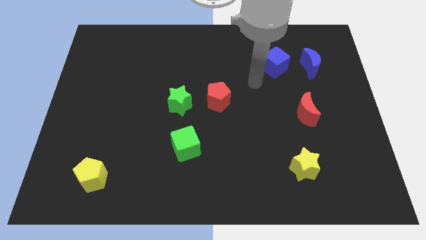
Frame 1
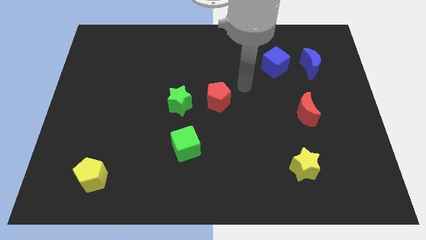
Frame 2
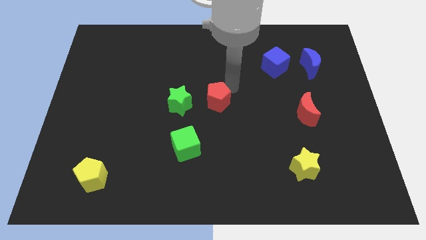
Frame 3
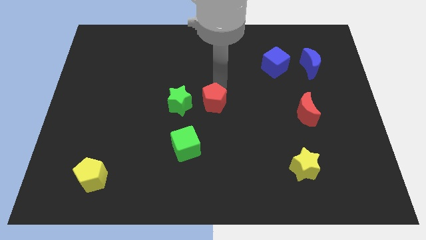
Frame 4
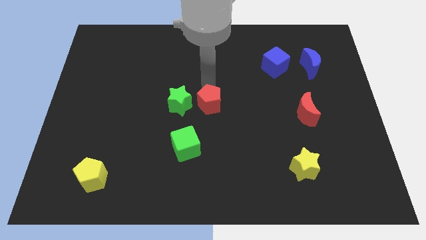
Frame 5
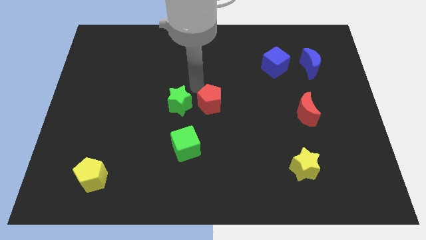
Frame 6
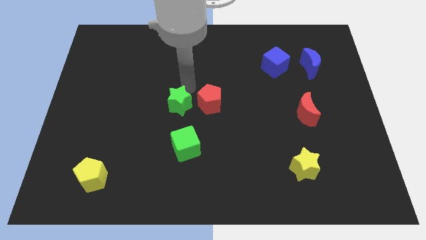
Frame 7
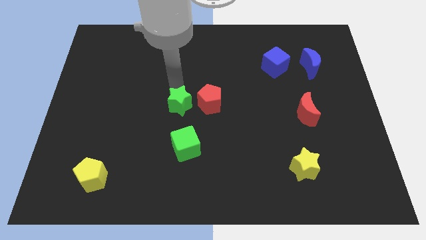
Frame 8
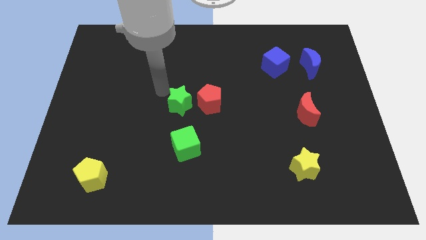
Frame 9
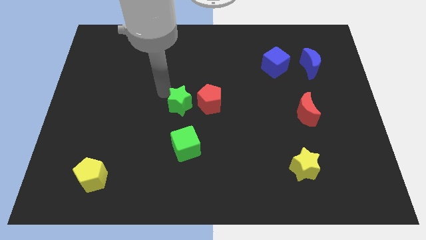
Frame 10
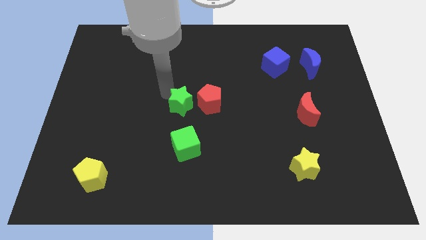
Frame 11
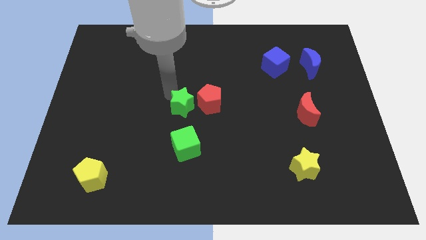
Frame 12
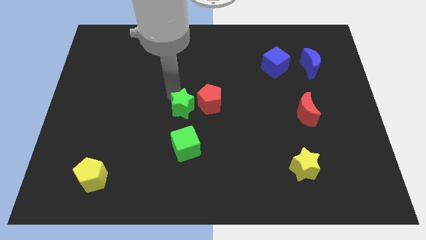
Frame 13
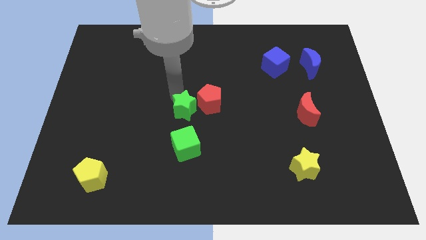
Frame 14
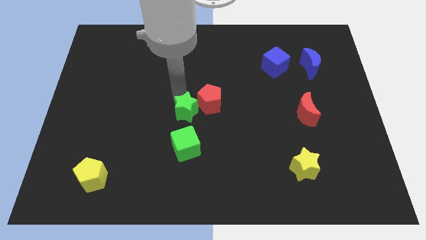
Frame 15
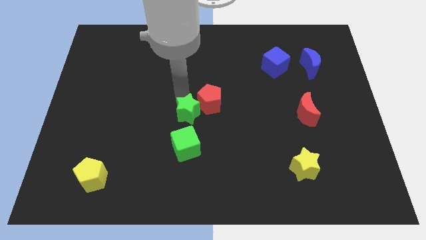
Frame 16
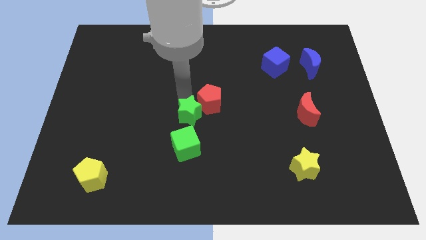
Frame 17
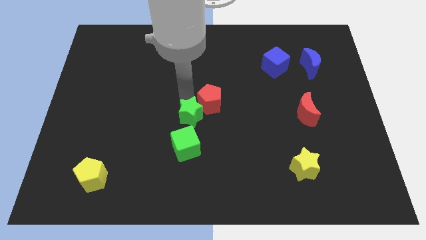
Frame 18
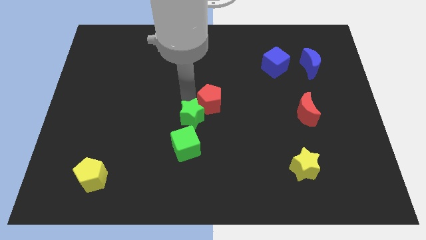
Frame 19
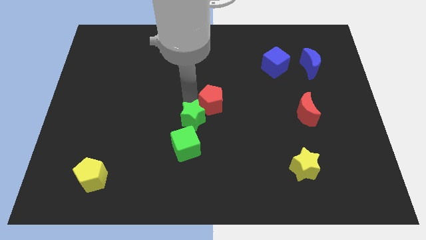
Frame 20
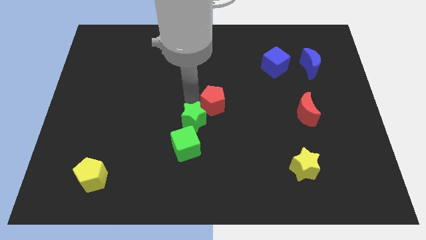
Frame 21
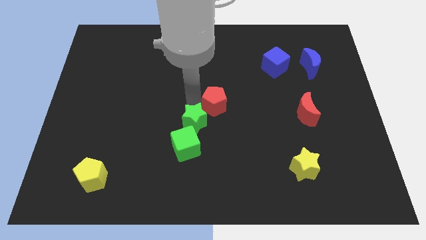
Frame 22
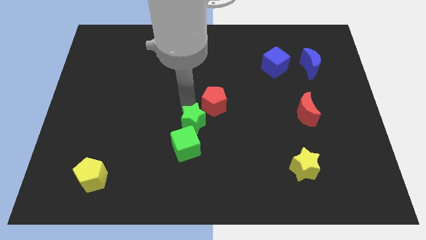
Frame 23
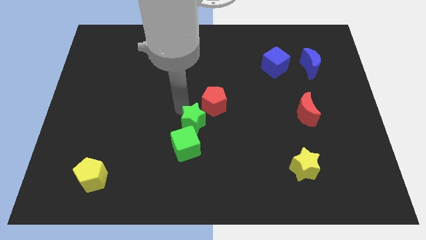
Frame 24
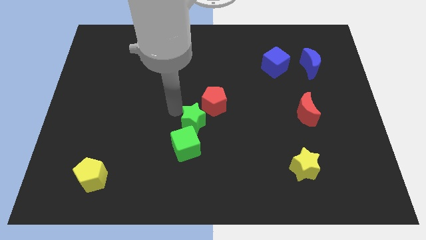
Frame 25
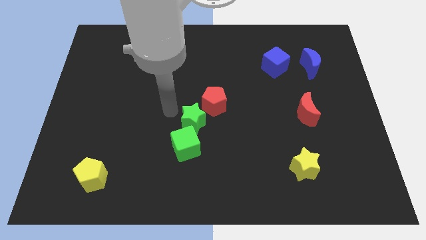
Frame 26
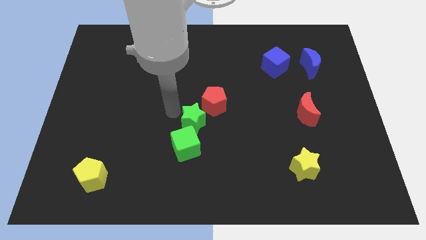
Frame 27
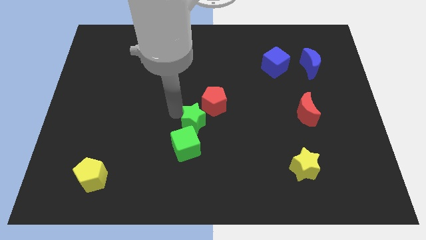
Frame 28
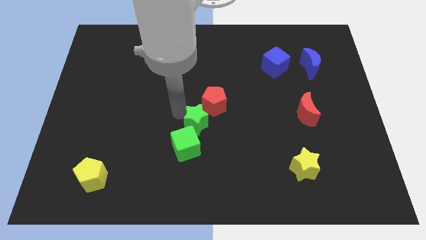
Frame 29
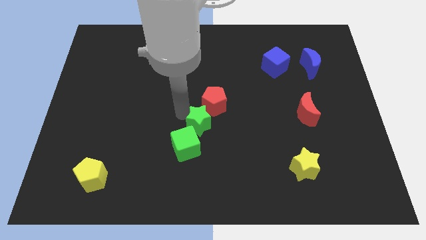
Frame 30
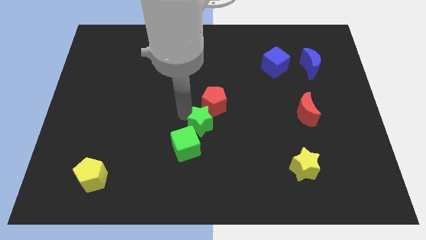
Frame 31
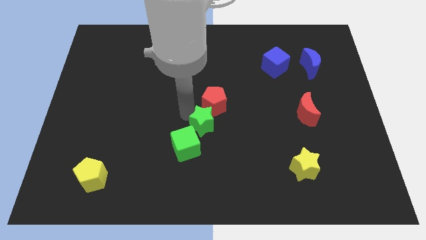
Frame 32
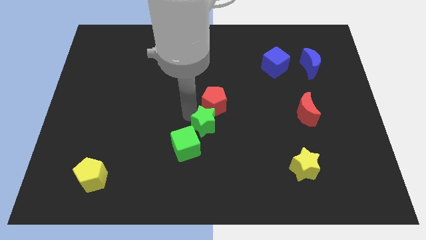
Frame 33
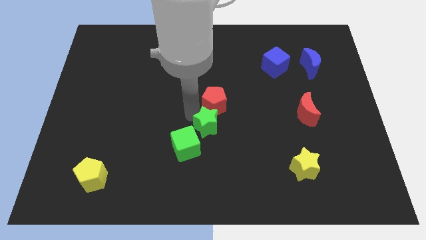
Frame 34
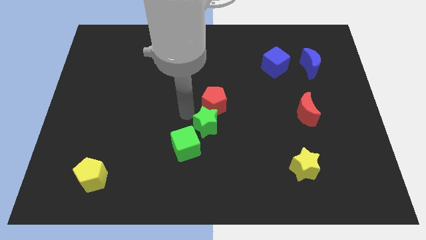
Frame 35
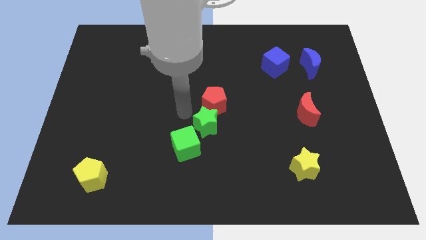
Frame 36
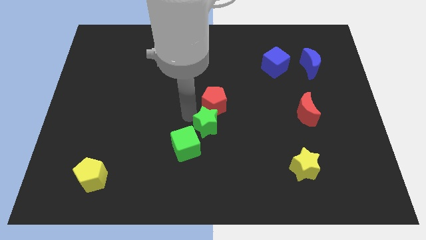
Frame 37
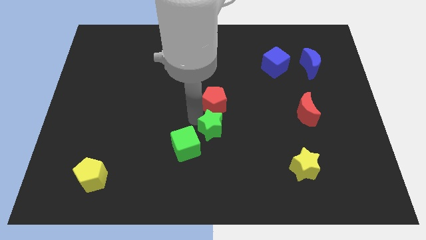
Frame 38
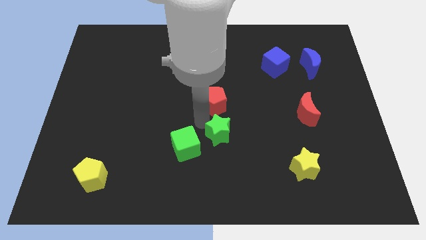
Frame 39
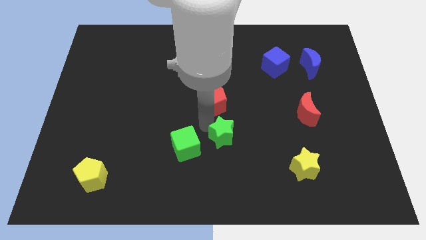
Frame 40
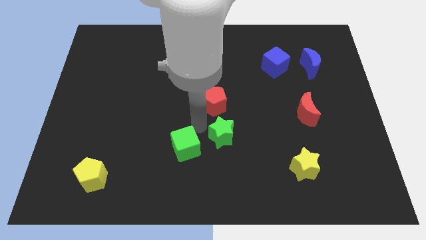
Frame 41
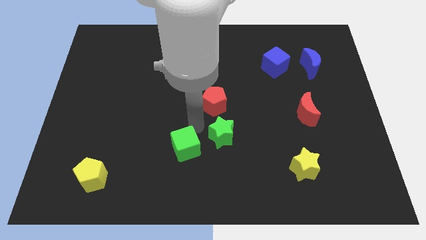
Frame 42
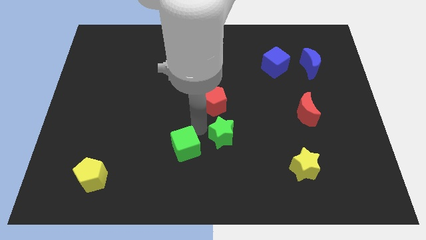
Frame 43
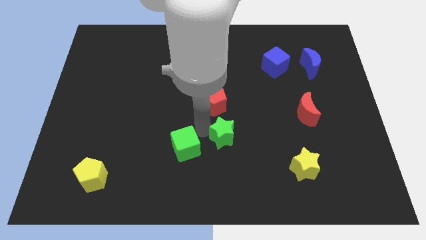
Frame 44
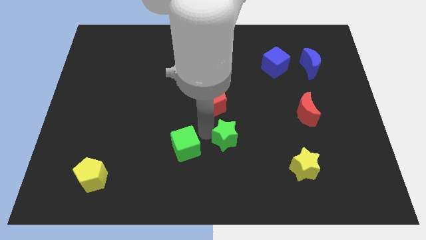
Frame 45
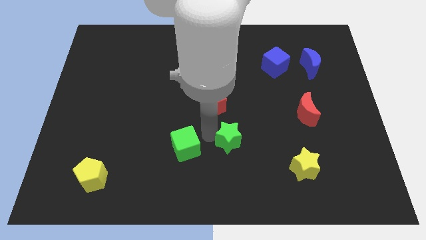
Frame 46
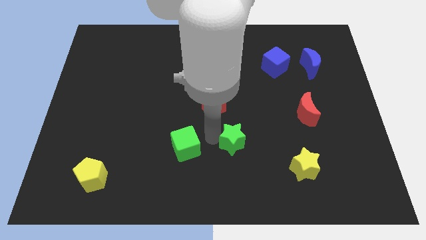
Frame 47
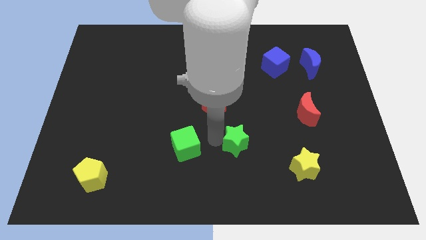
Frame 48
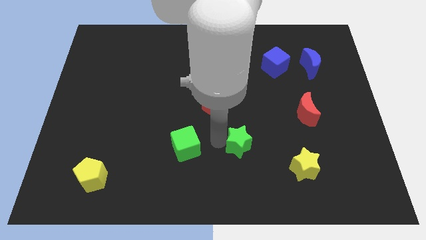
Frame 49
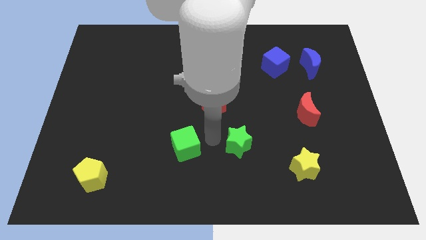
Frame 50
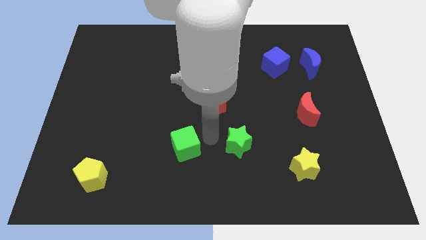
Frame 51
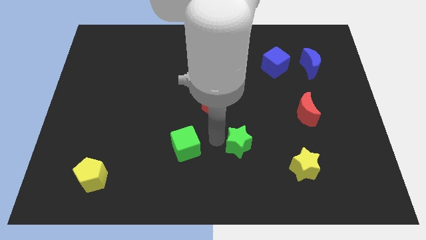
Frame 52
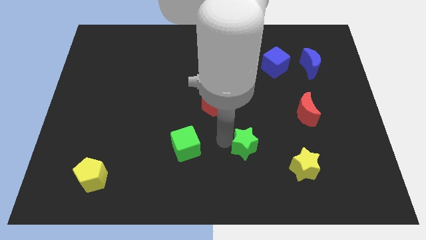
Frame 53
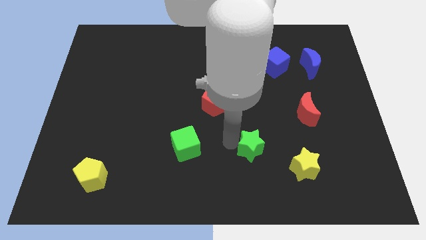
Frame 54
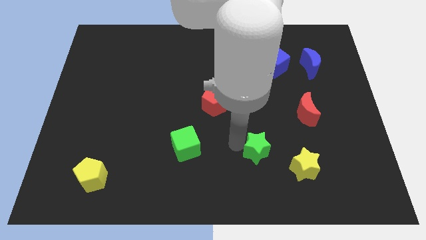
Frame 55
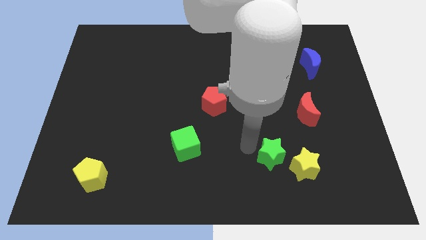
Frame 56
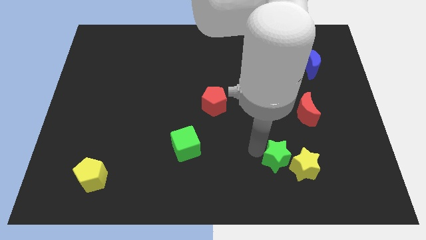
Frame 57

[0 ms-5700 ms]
move the green star to the yellow star

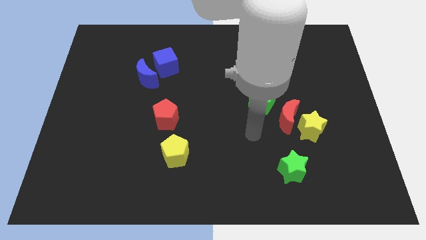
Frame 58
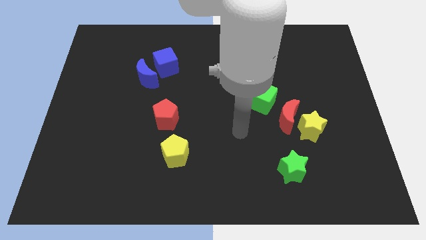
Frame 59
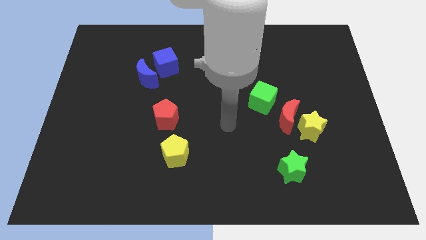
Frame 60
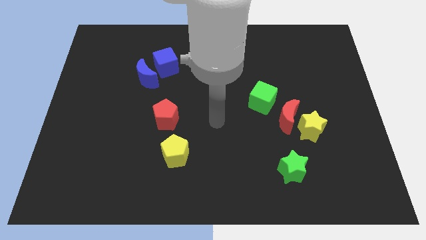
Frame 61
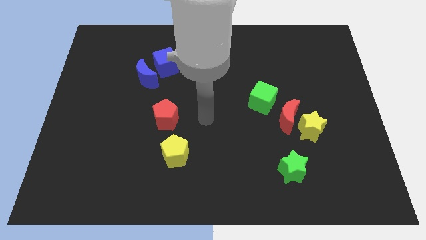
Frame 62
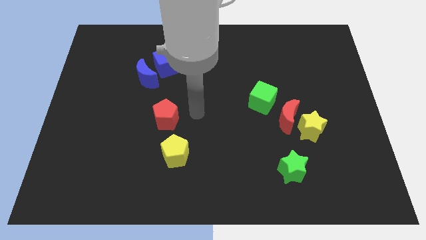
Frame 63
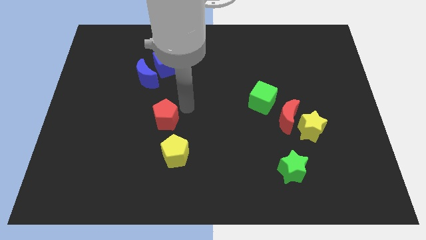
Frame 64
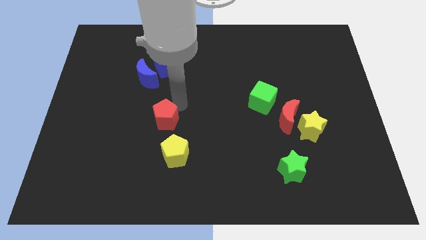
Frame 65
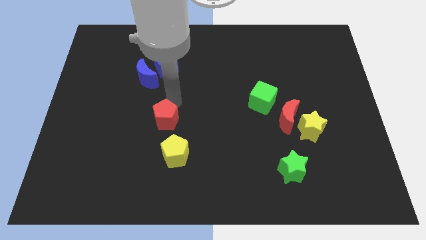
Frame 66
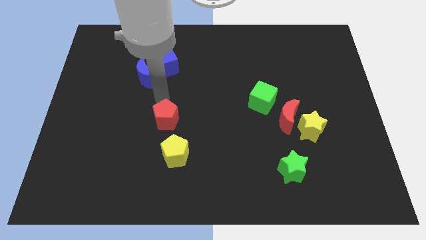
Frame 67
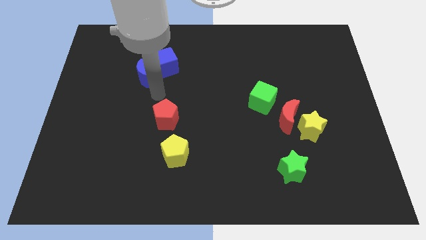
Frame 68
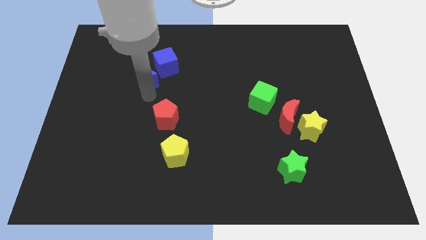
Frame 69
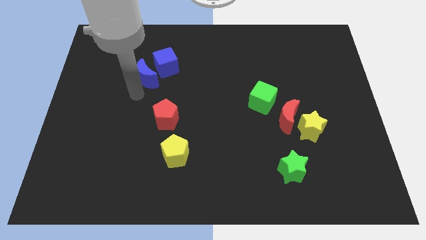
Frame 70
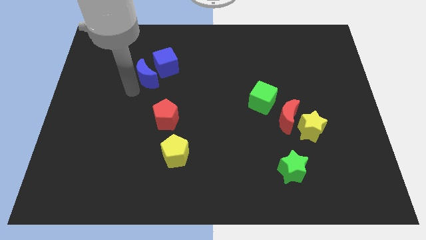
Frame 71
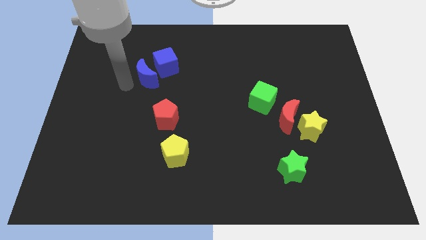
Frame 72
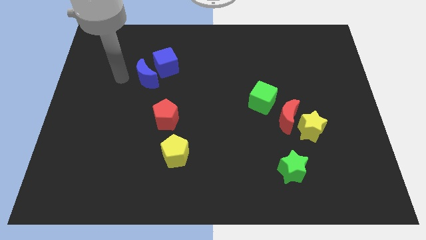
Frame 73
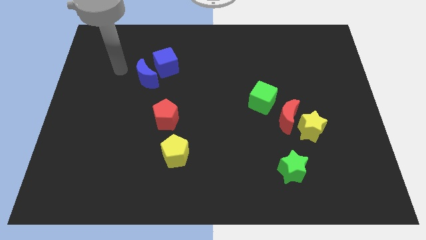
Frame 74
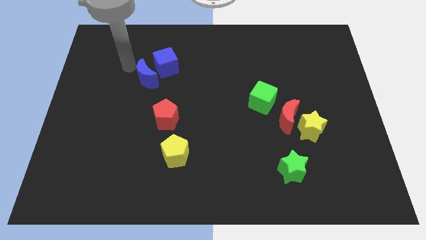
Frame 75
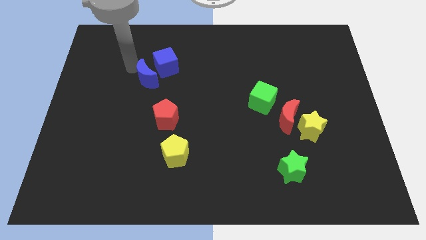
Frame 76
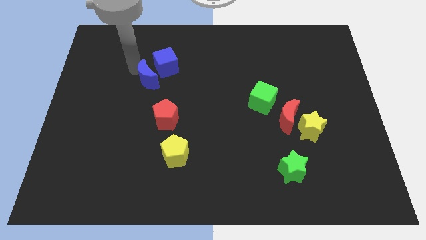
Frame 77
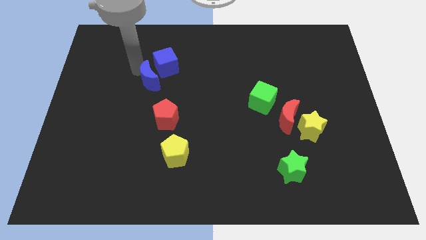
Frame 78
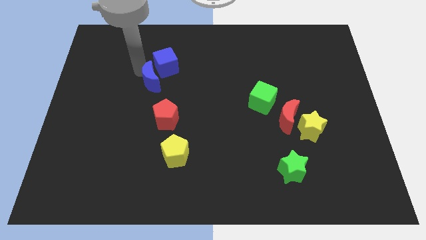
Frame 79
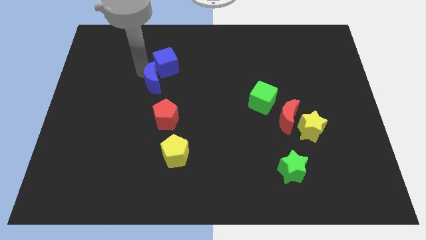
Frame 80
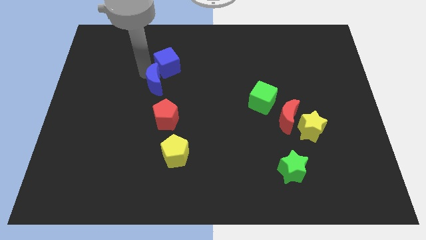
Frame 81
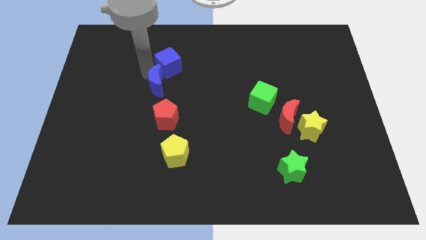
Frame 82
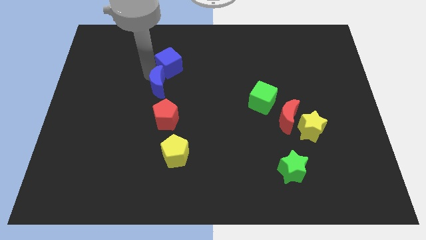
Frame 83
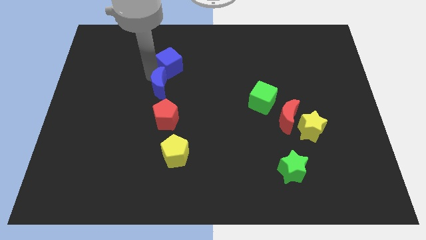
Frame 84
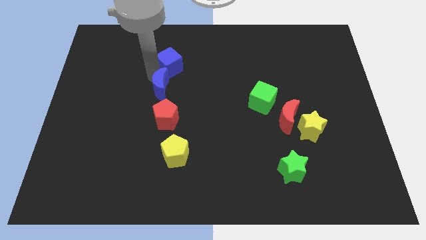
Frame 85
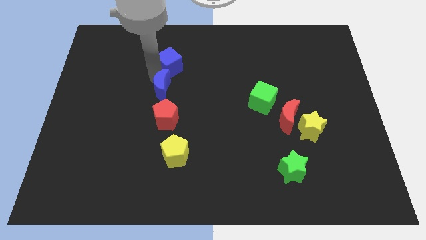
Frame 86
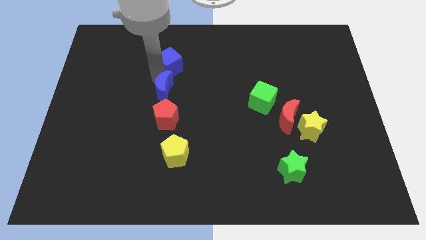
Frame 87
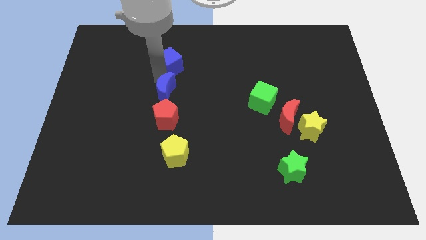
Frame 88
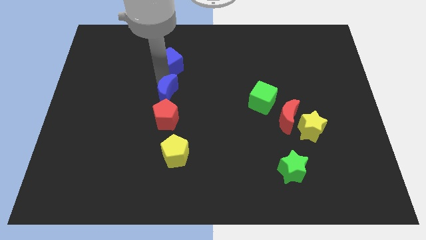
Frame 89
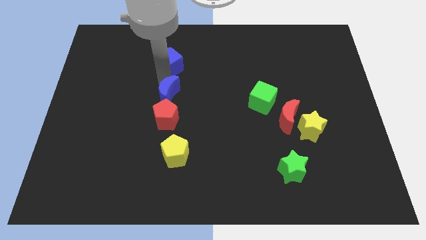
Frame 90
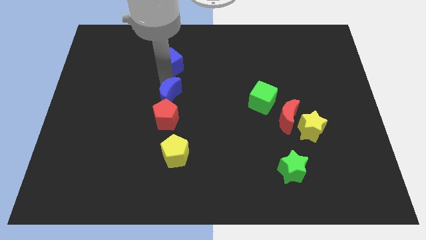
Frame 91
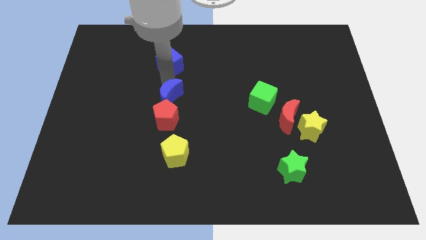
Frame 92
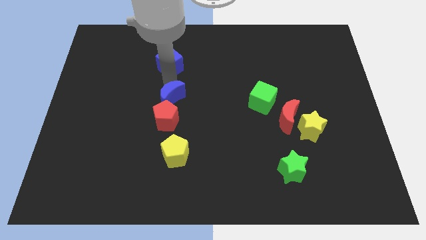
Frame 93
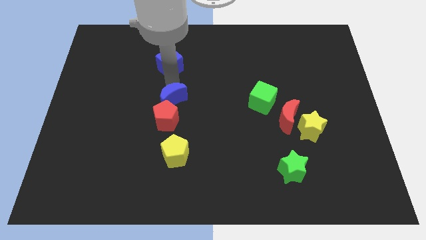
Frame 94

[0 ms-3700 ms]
slide the blue moon towards the red pentagon
